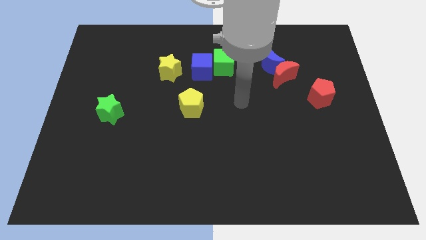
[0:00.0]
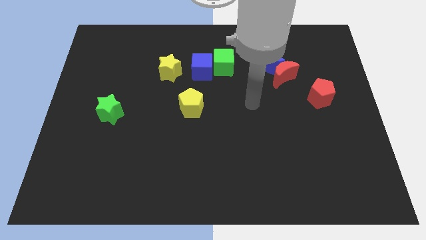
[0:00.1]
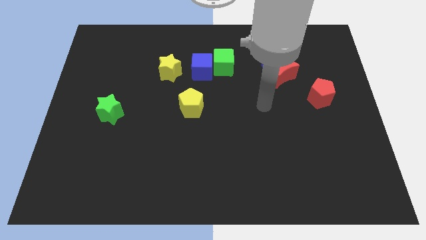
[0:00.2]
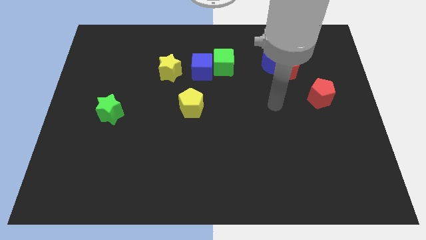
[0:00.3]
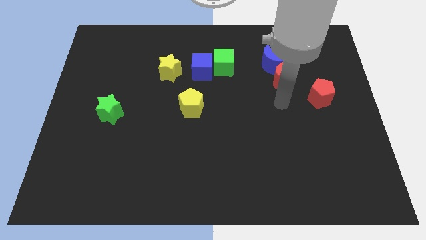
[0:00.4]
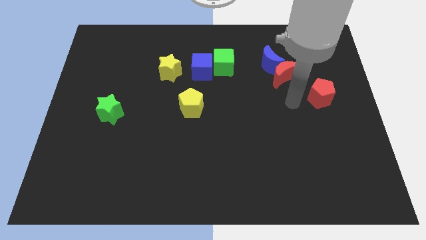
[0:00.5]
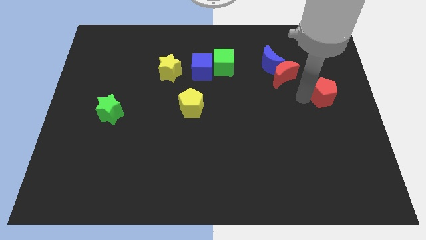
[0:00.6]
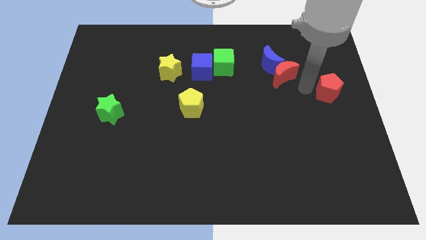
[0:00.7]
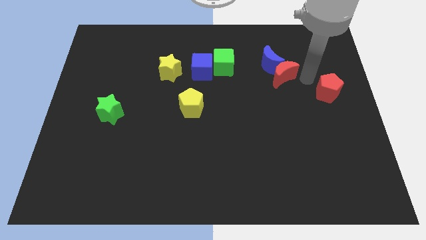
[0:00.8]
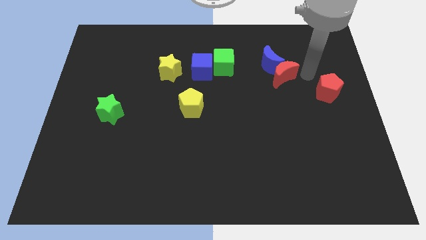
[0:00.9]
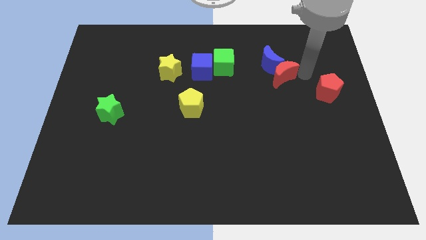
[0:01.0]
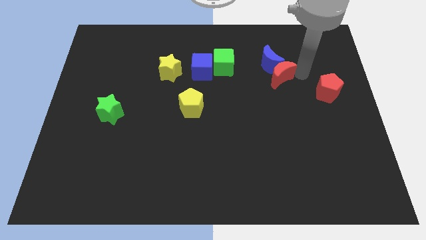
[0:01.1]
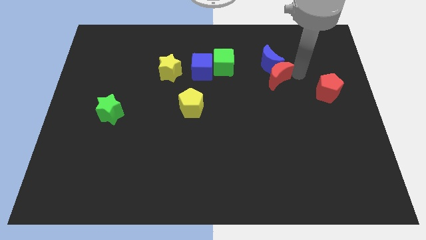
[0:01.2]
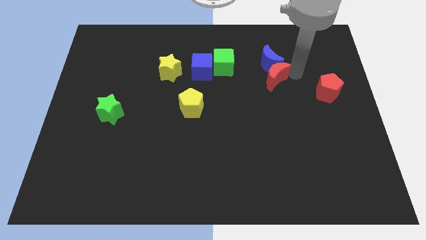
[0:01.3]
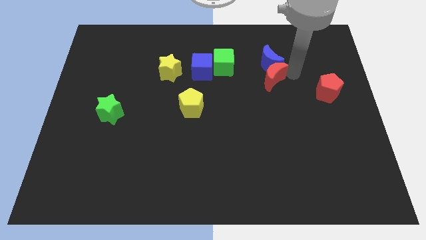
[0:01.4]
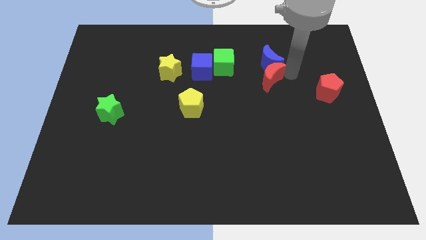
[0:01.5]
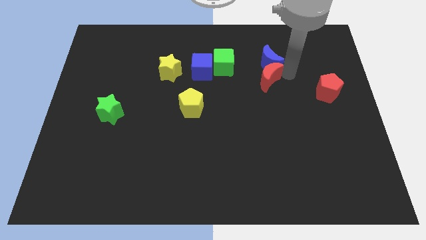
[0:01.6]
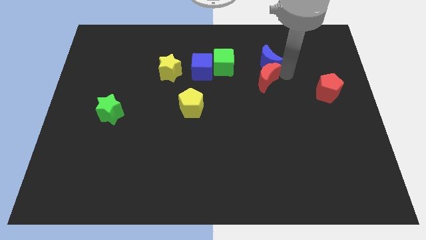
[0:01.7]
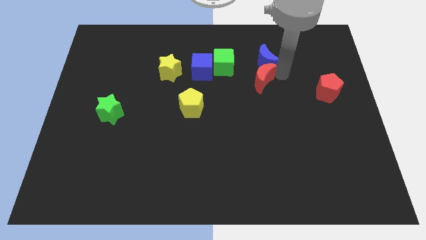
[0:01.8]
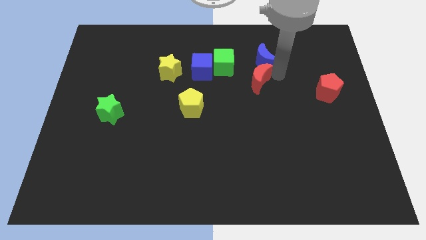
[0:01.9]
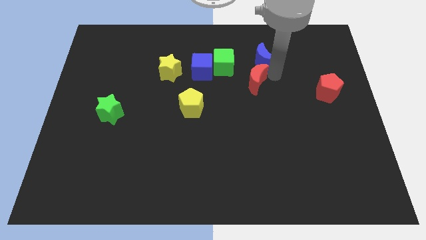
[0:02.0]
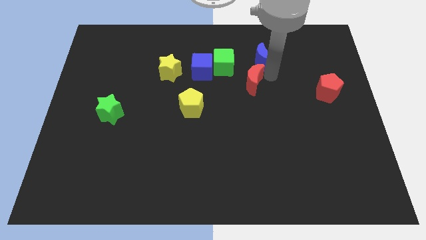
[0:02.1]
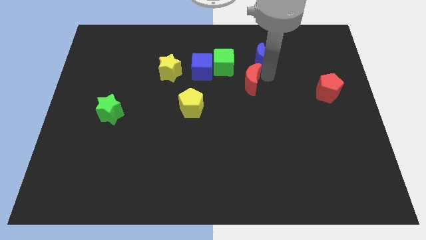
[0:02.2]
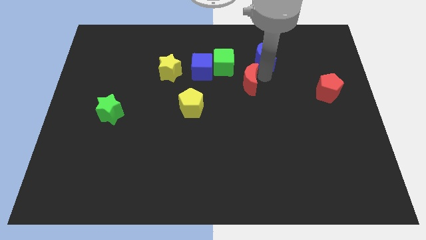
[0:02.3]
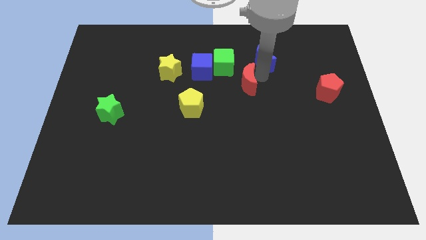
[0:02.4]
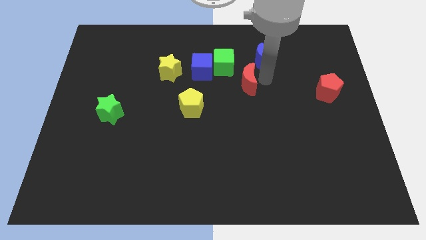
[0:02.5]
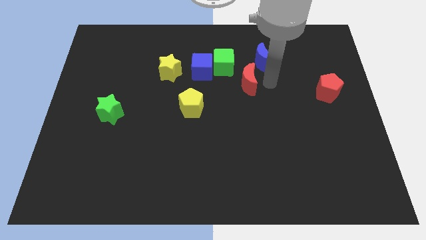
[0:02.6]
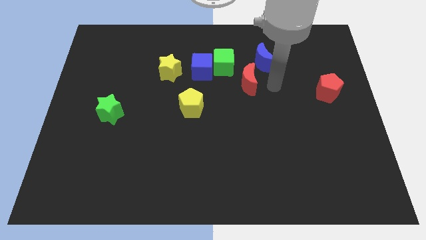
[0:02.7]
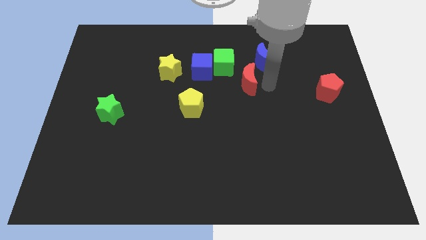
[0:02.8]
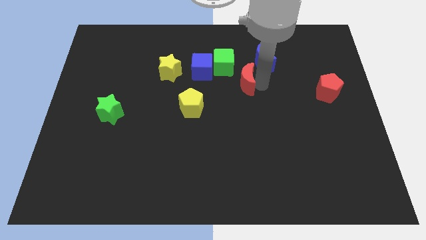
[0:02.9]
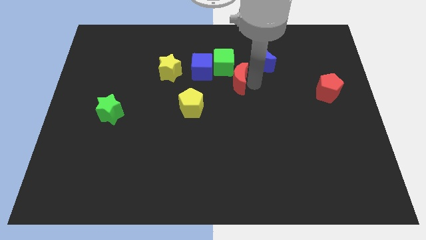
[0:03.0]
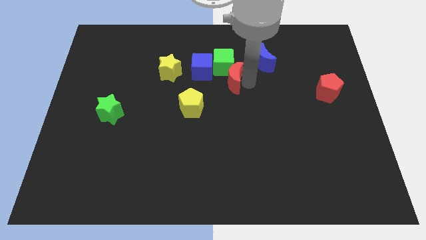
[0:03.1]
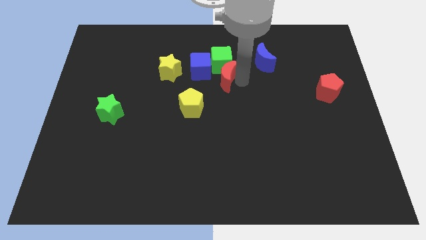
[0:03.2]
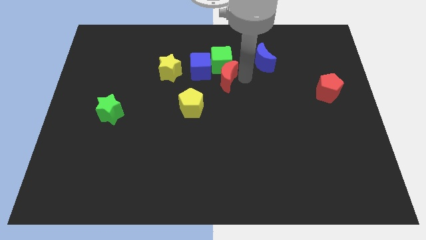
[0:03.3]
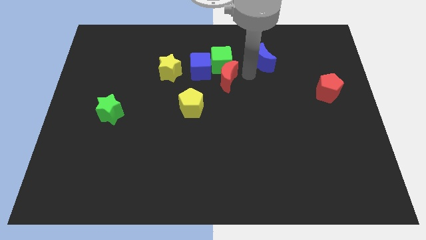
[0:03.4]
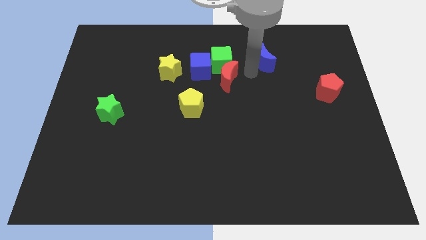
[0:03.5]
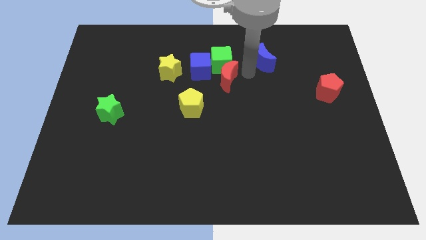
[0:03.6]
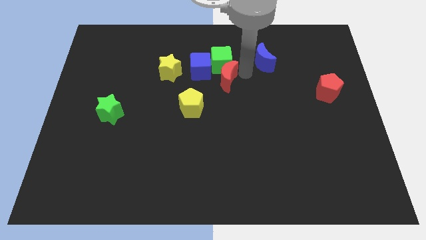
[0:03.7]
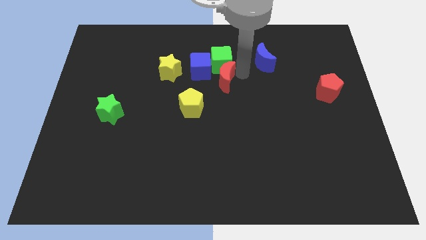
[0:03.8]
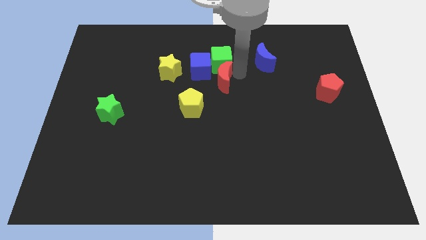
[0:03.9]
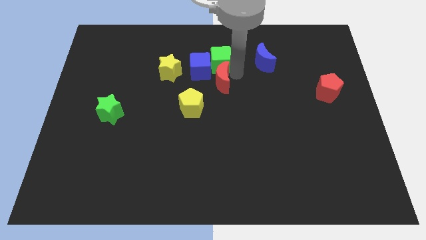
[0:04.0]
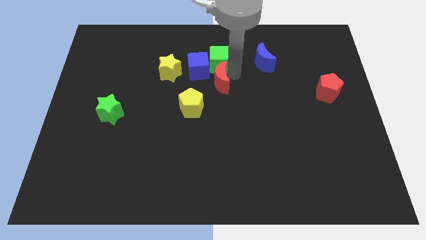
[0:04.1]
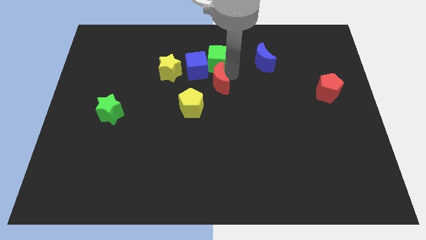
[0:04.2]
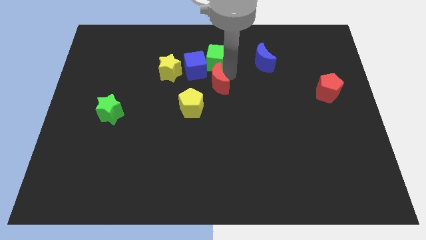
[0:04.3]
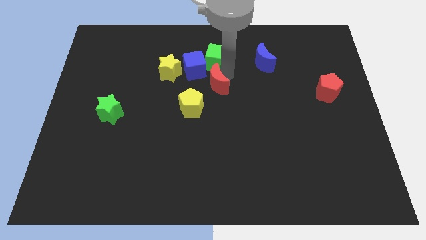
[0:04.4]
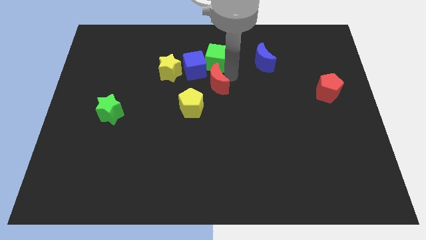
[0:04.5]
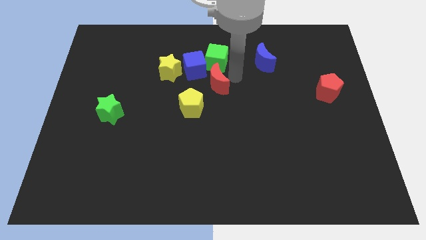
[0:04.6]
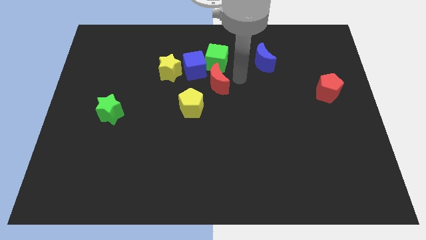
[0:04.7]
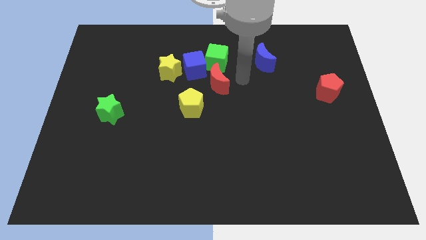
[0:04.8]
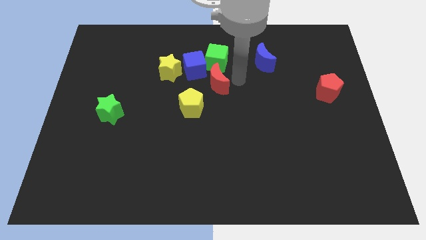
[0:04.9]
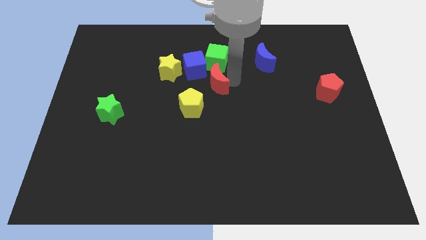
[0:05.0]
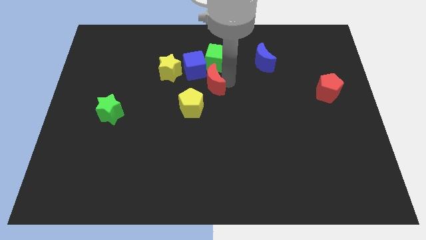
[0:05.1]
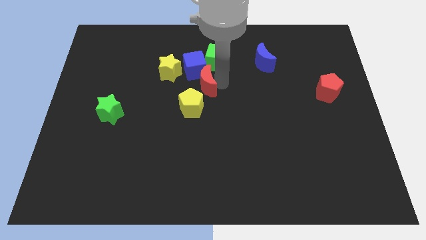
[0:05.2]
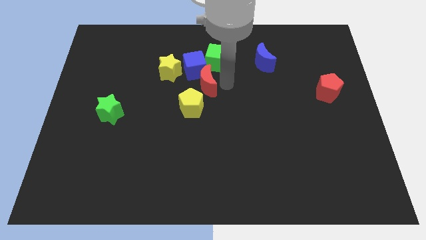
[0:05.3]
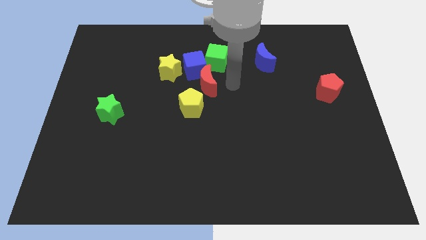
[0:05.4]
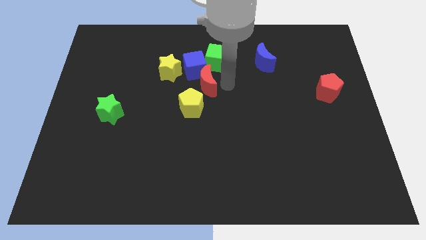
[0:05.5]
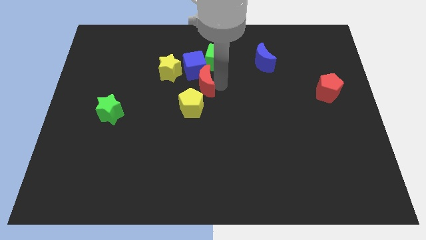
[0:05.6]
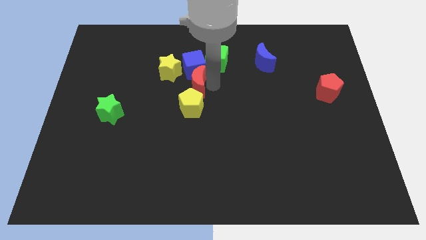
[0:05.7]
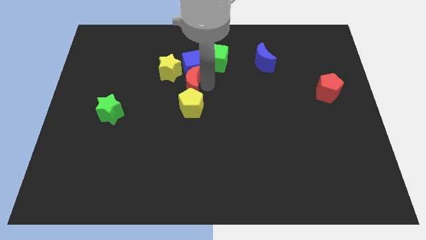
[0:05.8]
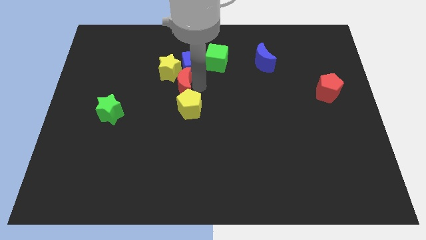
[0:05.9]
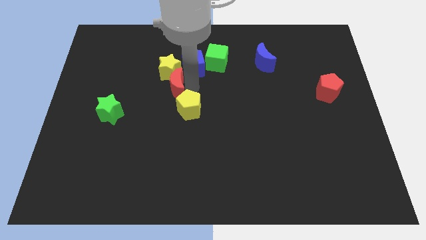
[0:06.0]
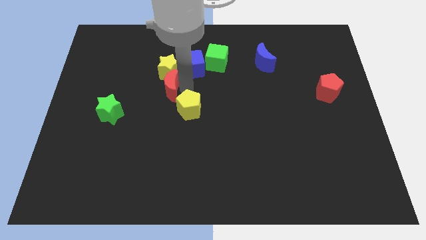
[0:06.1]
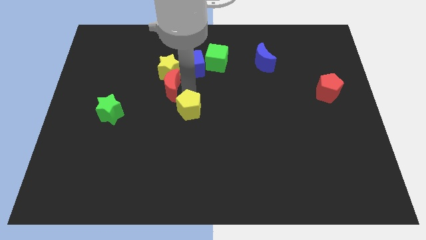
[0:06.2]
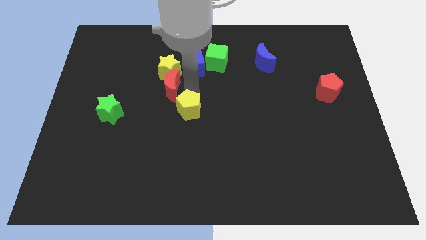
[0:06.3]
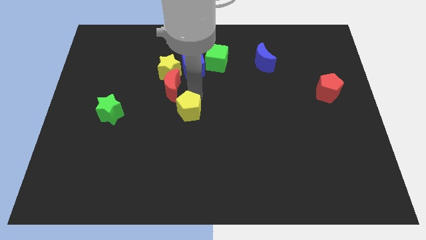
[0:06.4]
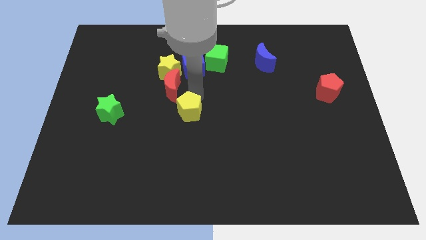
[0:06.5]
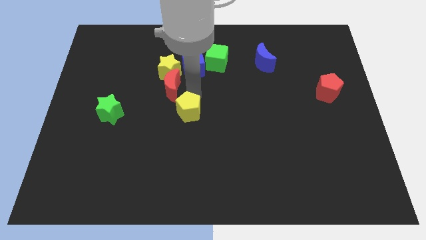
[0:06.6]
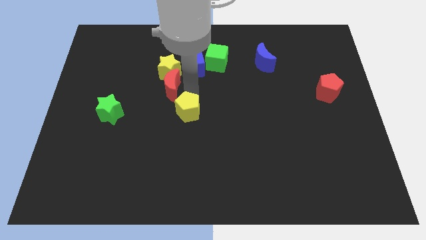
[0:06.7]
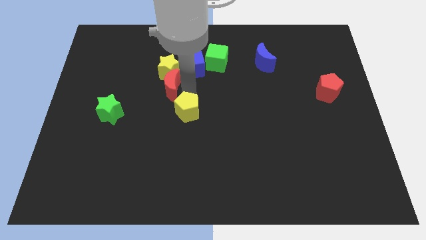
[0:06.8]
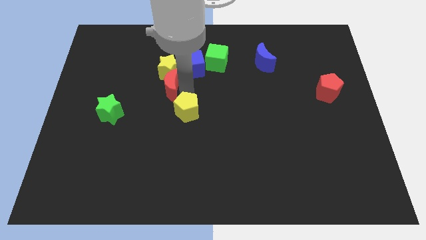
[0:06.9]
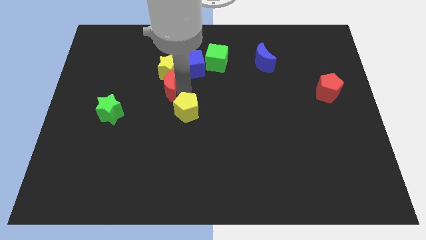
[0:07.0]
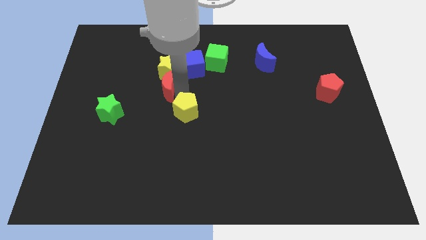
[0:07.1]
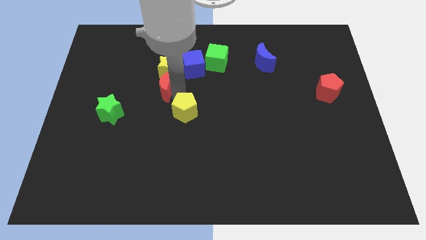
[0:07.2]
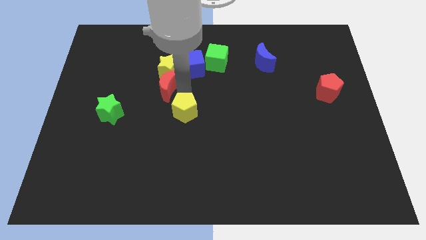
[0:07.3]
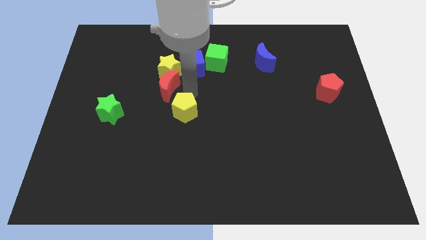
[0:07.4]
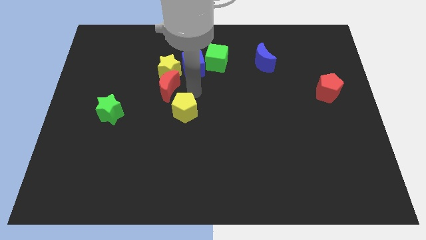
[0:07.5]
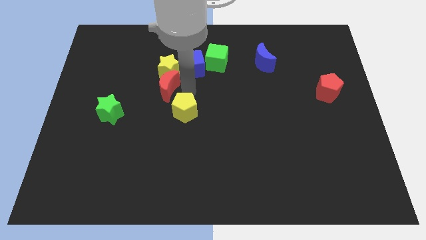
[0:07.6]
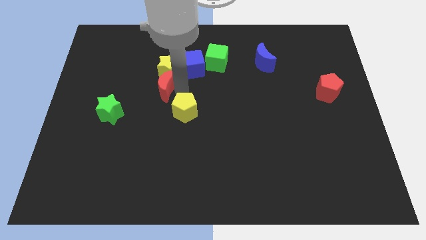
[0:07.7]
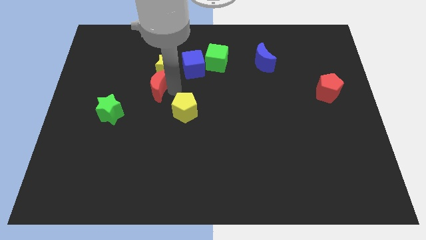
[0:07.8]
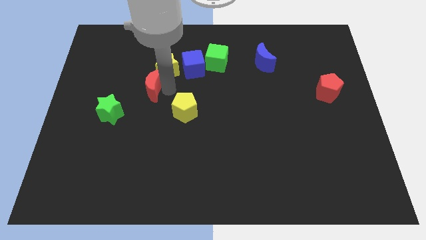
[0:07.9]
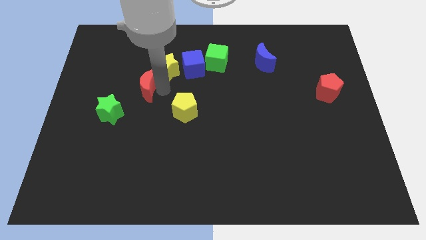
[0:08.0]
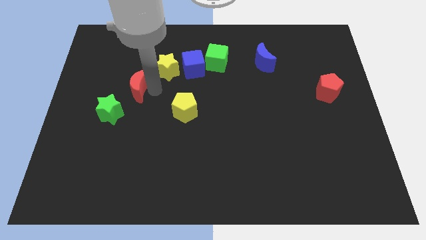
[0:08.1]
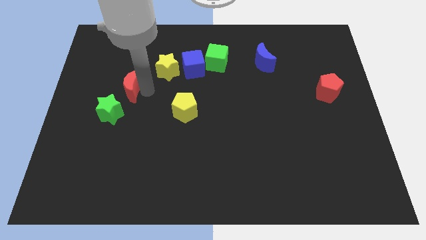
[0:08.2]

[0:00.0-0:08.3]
put the red moon above the green star
